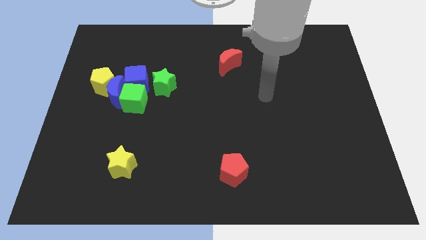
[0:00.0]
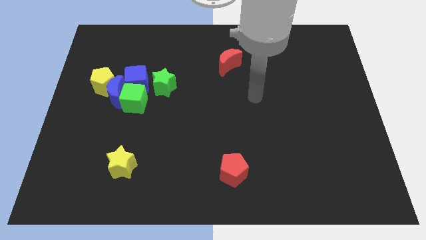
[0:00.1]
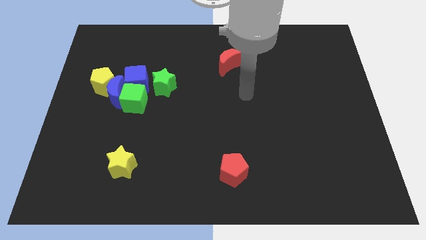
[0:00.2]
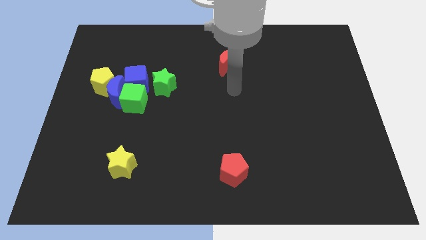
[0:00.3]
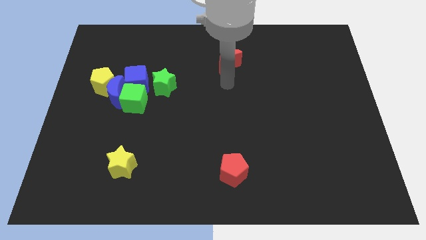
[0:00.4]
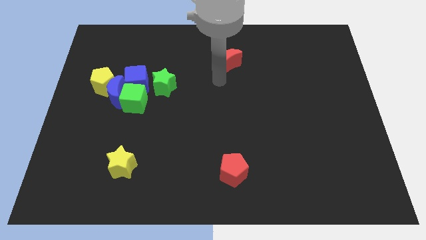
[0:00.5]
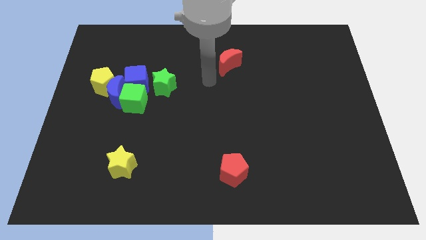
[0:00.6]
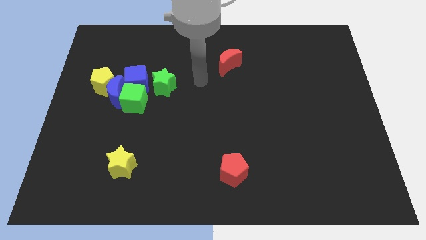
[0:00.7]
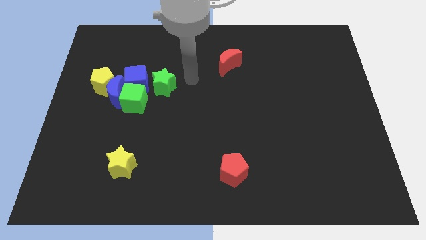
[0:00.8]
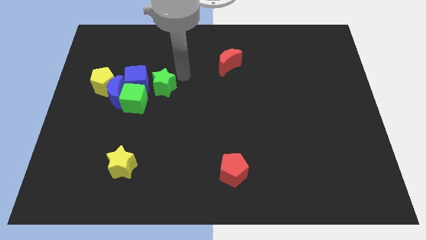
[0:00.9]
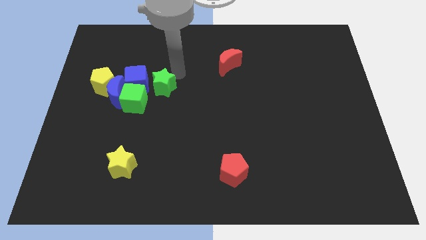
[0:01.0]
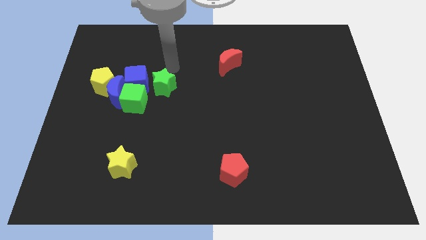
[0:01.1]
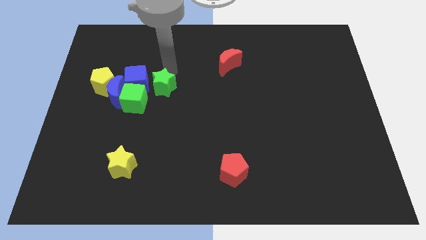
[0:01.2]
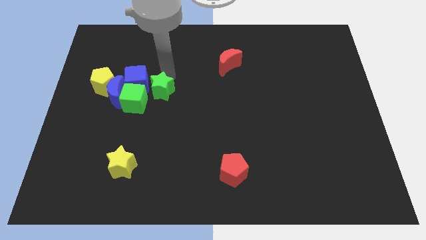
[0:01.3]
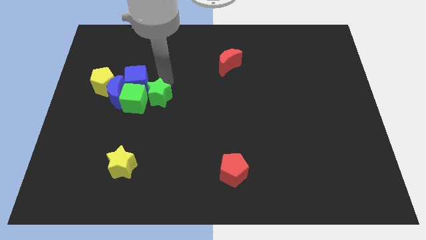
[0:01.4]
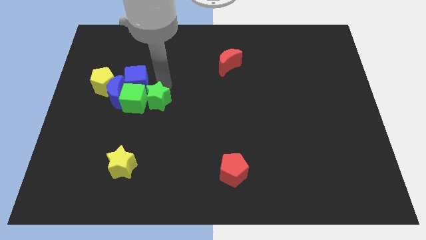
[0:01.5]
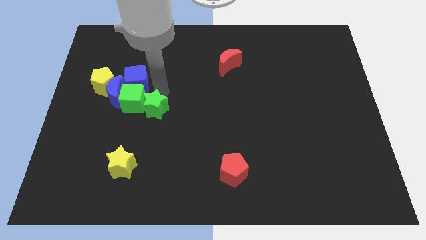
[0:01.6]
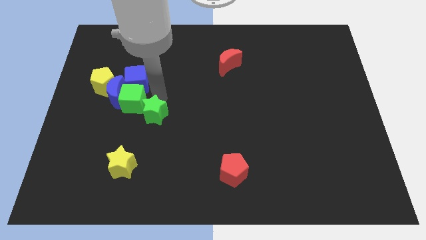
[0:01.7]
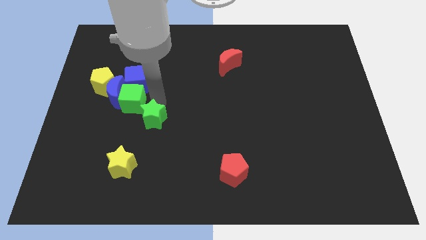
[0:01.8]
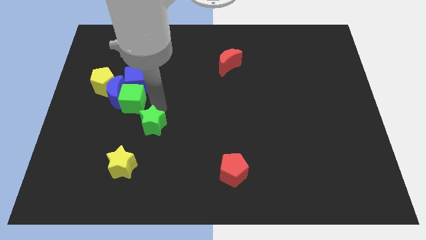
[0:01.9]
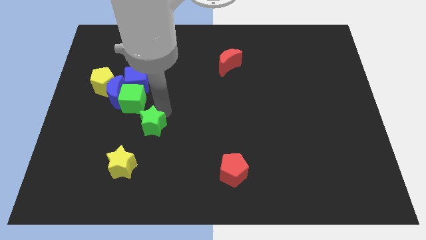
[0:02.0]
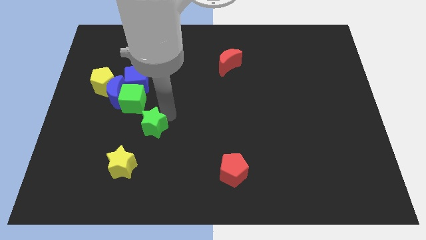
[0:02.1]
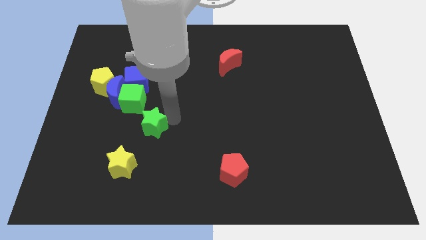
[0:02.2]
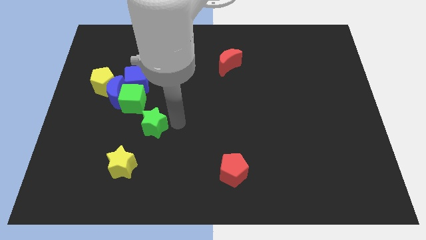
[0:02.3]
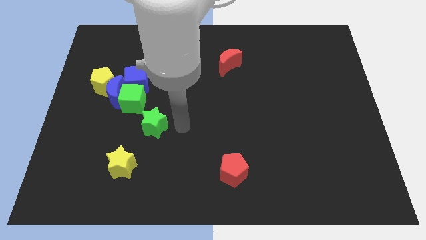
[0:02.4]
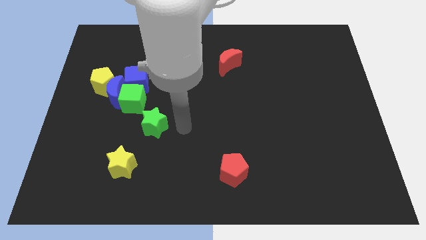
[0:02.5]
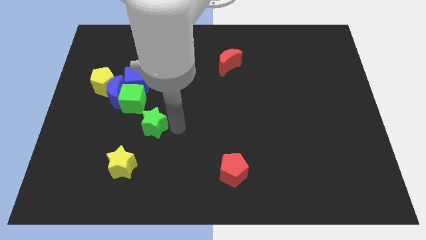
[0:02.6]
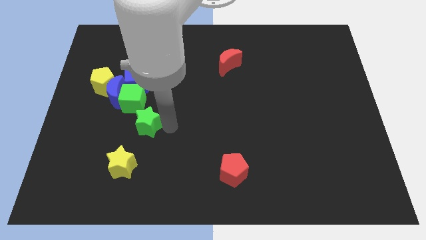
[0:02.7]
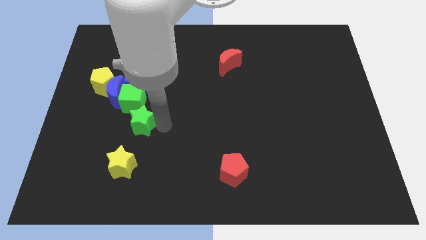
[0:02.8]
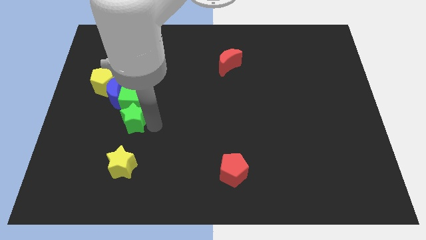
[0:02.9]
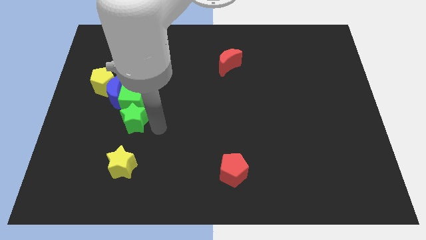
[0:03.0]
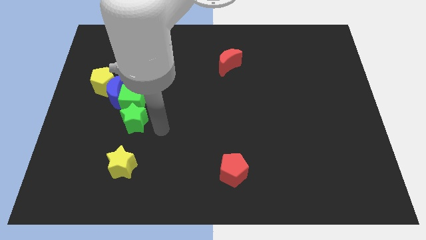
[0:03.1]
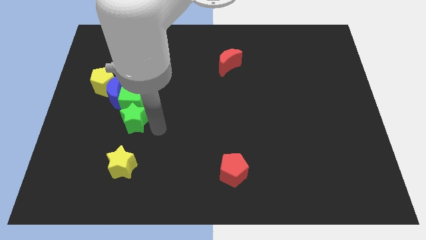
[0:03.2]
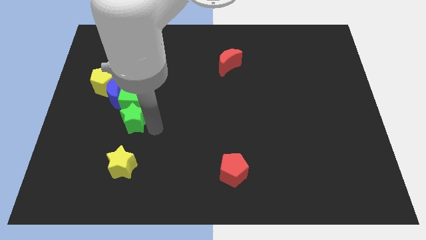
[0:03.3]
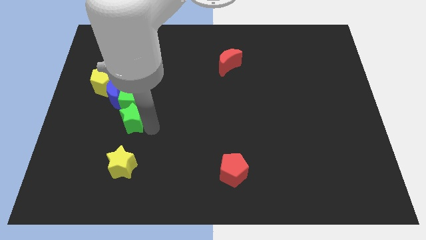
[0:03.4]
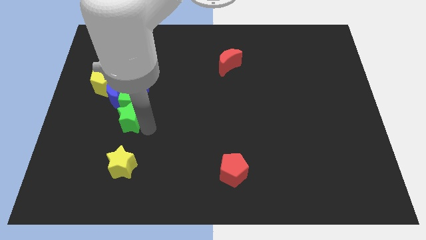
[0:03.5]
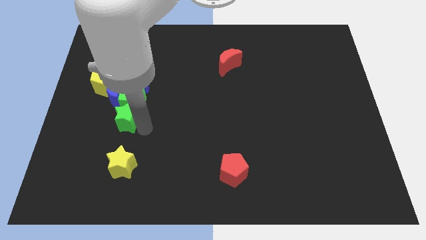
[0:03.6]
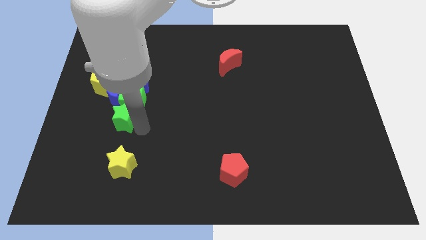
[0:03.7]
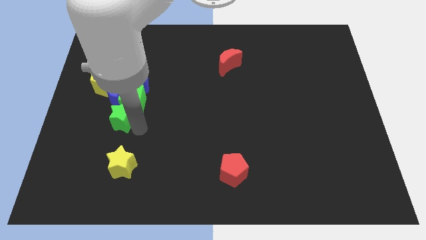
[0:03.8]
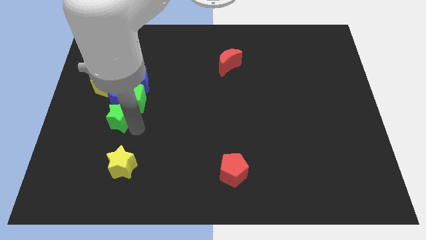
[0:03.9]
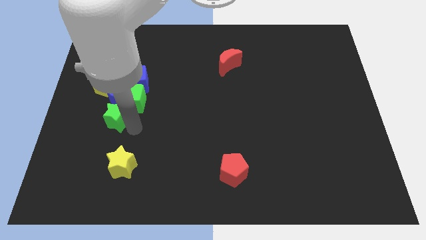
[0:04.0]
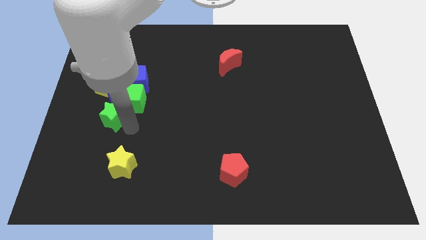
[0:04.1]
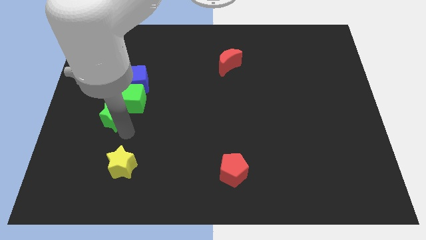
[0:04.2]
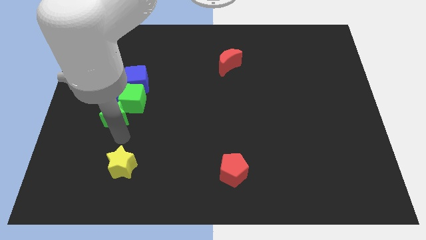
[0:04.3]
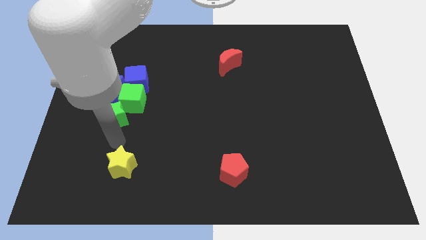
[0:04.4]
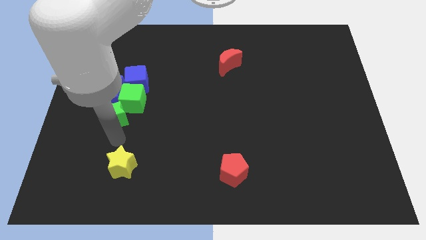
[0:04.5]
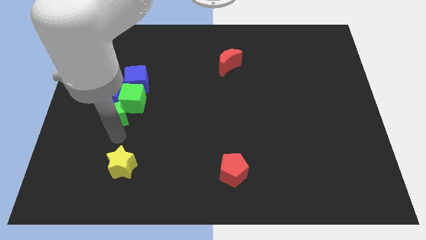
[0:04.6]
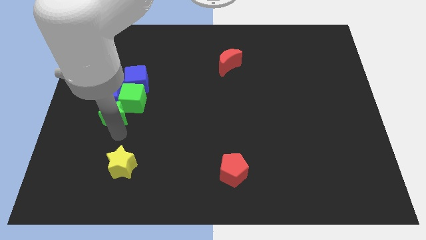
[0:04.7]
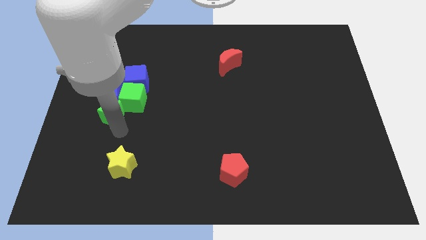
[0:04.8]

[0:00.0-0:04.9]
slide the green star to the blue moon

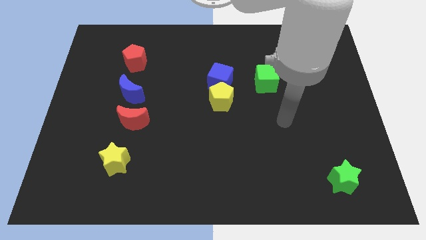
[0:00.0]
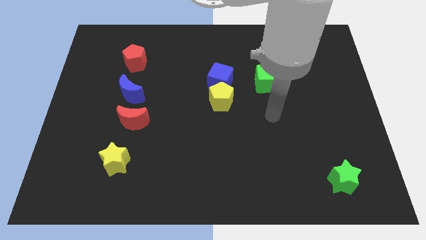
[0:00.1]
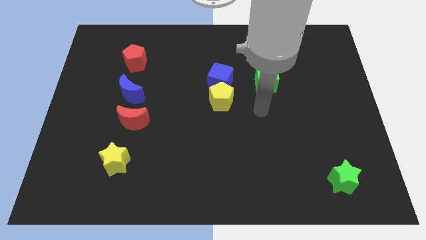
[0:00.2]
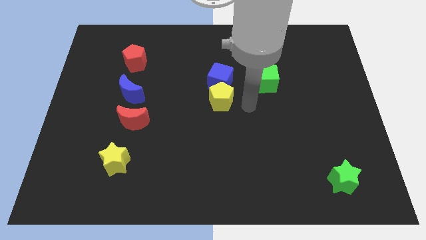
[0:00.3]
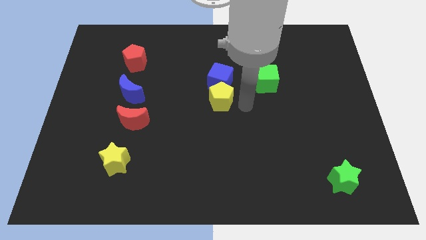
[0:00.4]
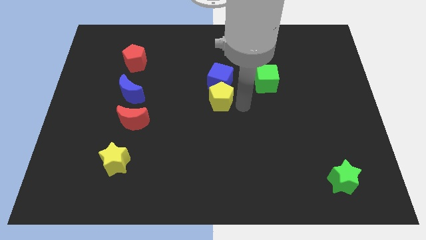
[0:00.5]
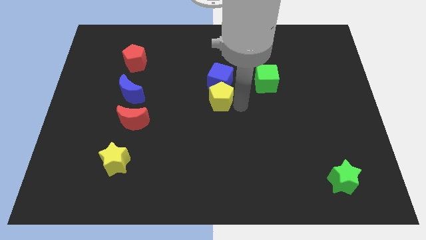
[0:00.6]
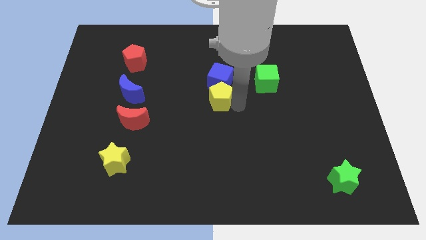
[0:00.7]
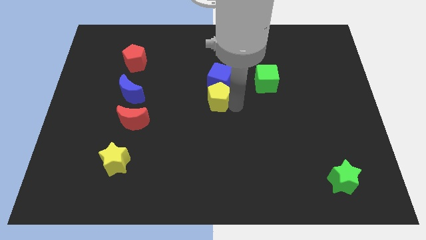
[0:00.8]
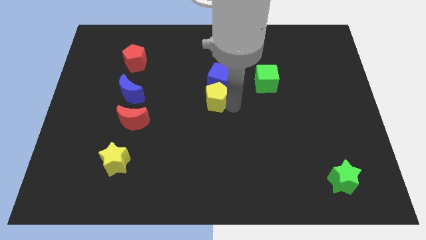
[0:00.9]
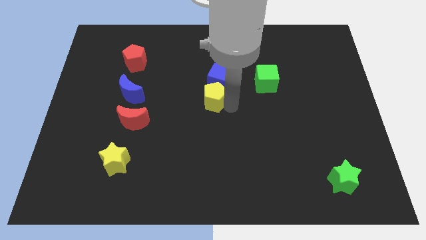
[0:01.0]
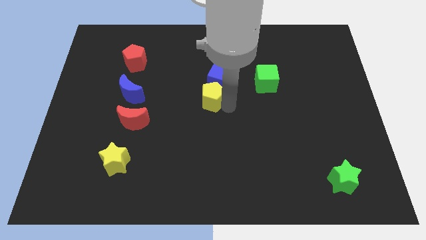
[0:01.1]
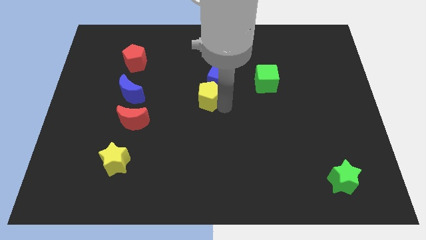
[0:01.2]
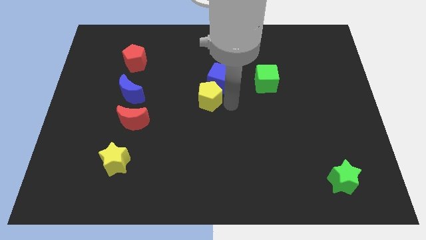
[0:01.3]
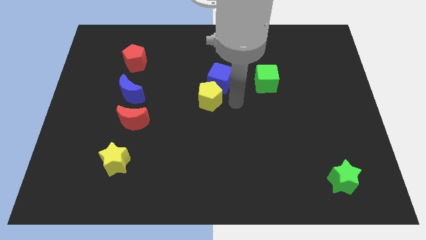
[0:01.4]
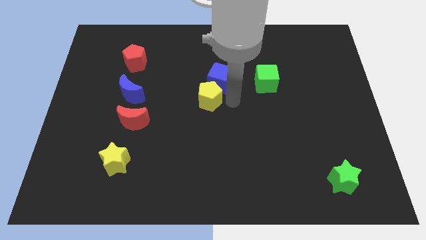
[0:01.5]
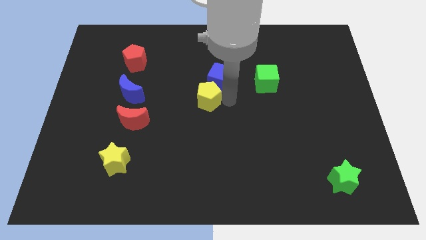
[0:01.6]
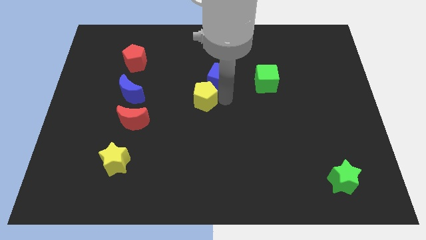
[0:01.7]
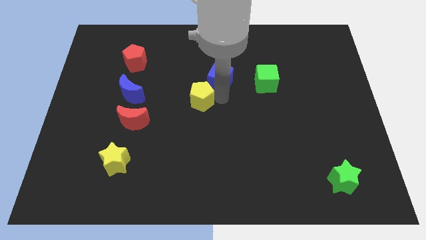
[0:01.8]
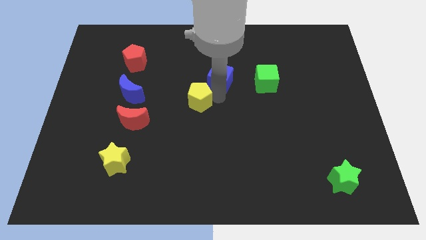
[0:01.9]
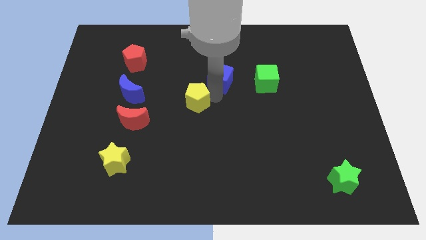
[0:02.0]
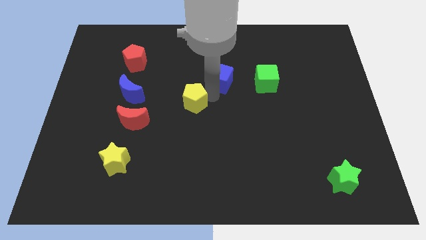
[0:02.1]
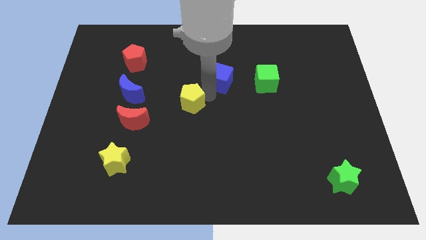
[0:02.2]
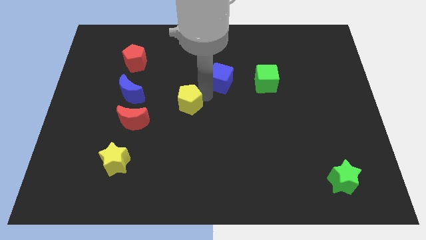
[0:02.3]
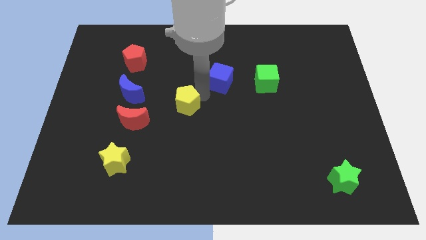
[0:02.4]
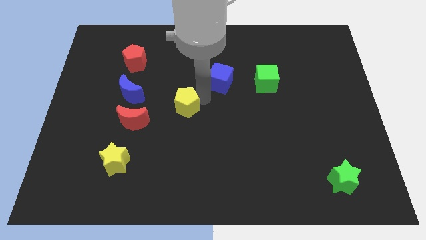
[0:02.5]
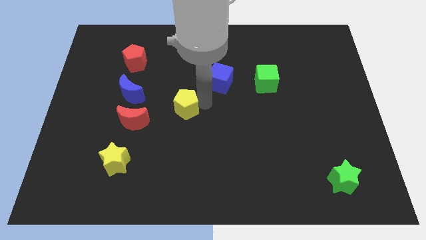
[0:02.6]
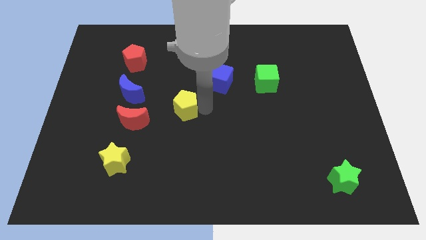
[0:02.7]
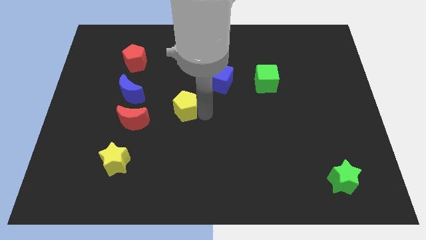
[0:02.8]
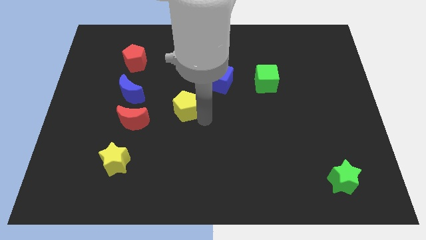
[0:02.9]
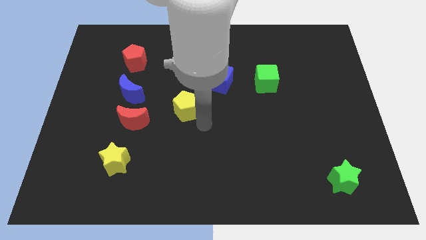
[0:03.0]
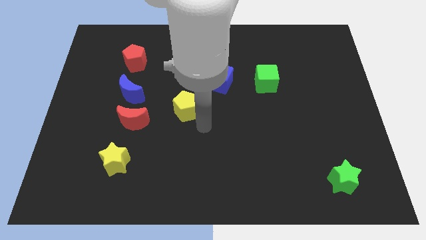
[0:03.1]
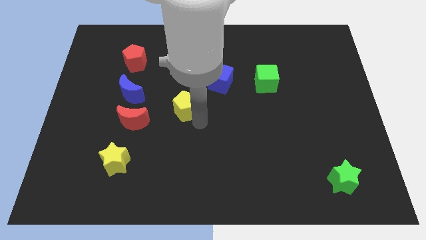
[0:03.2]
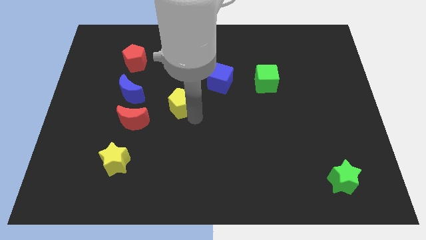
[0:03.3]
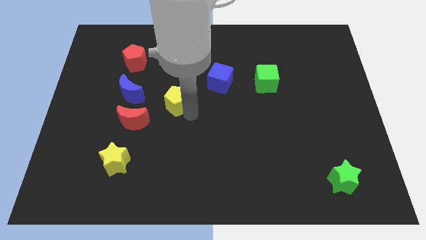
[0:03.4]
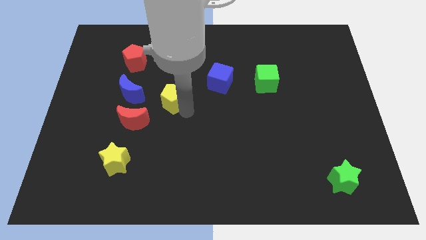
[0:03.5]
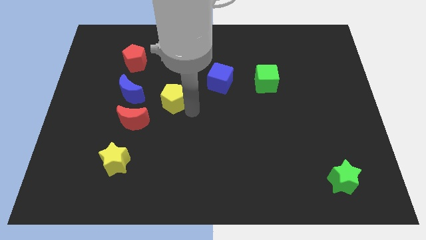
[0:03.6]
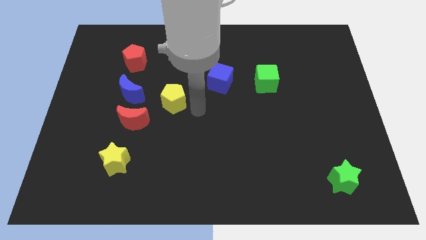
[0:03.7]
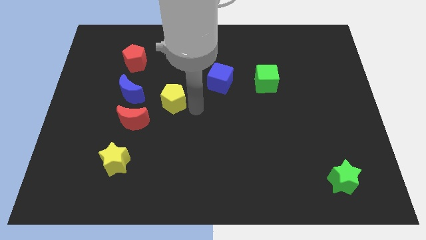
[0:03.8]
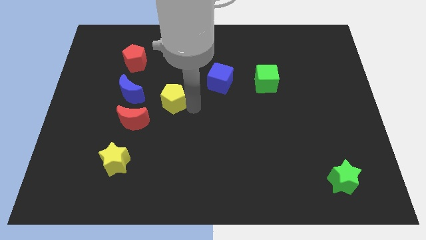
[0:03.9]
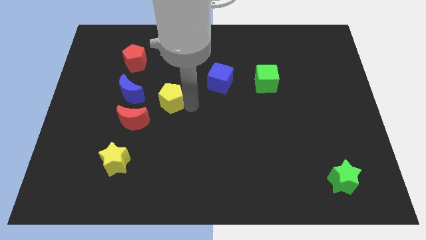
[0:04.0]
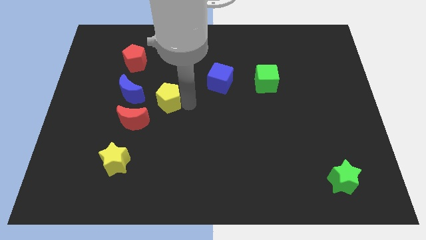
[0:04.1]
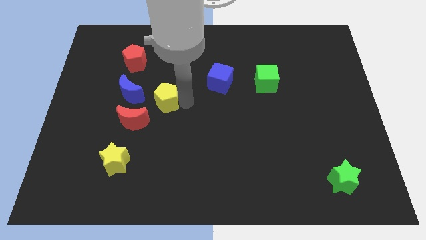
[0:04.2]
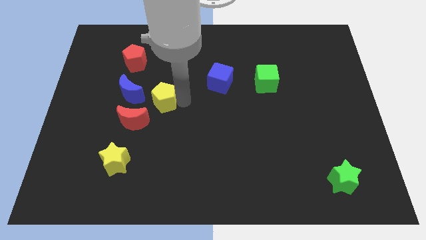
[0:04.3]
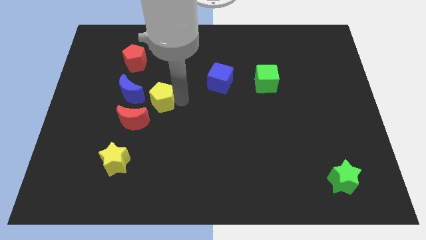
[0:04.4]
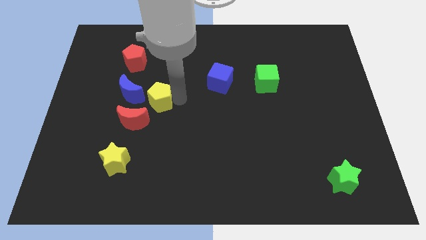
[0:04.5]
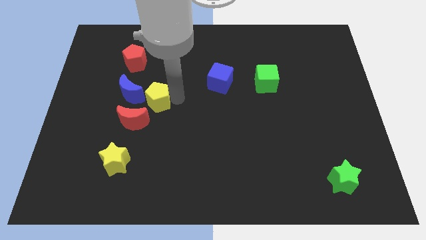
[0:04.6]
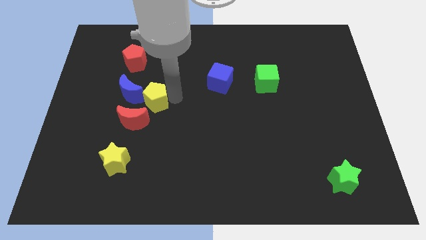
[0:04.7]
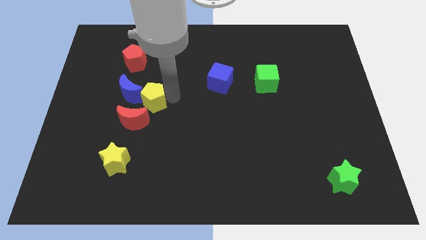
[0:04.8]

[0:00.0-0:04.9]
slide the yellow pentagon next to the blue moon
